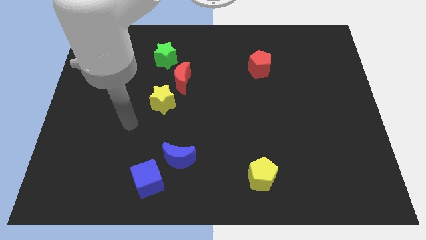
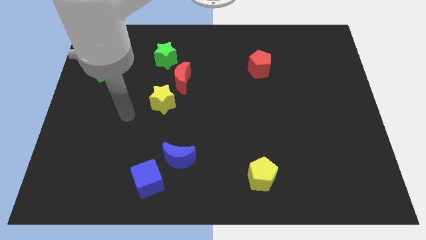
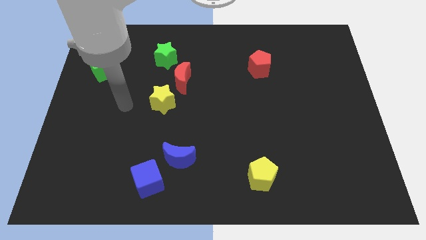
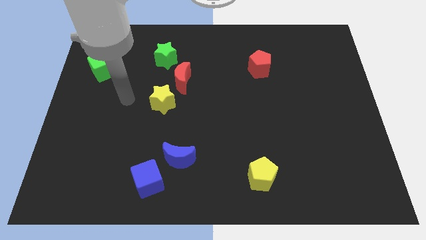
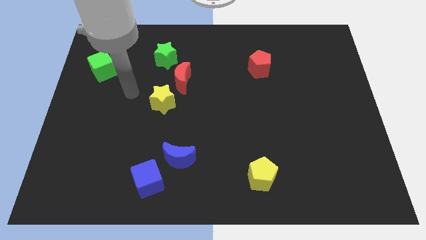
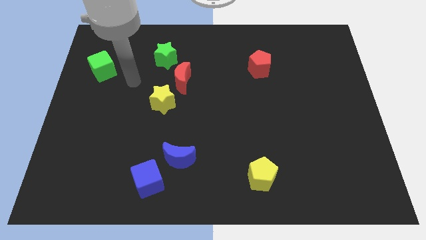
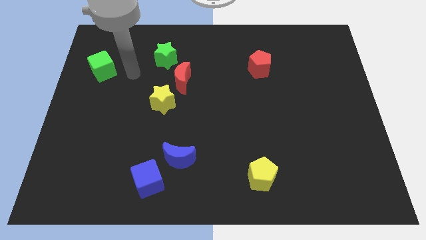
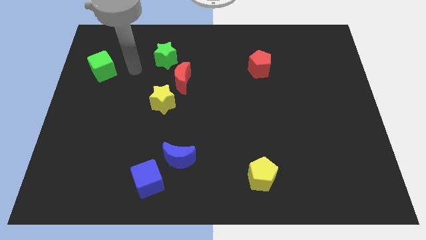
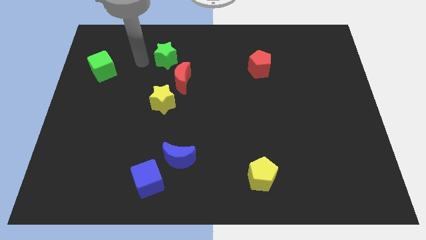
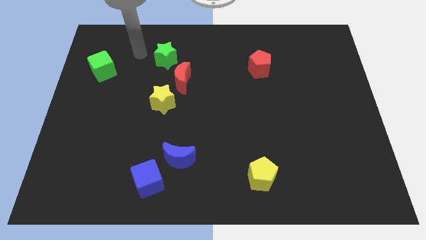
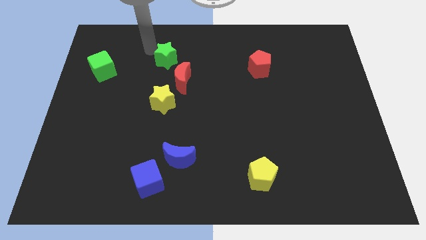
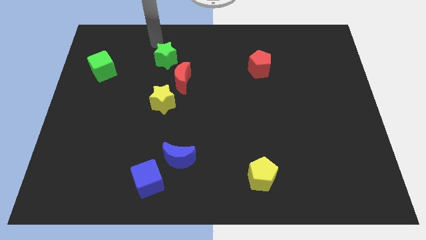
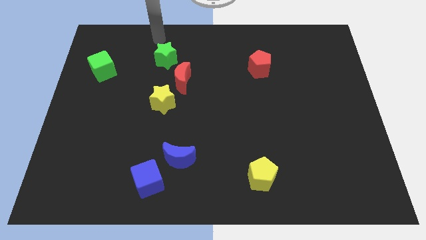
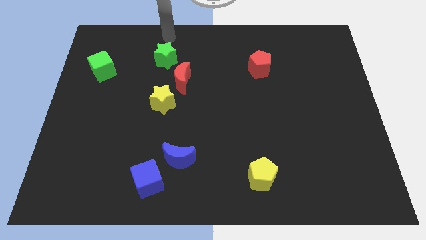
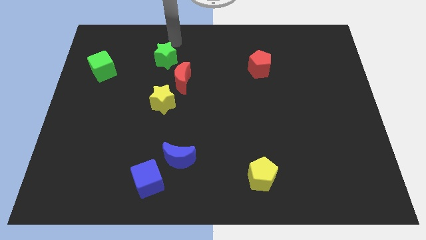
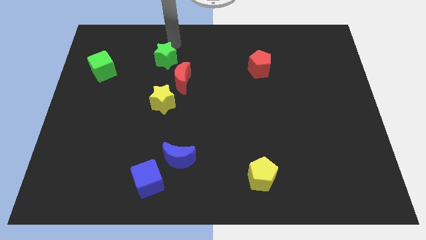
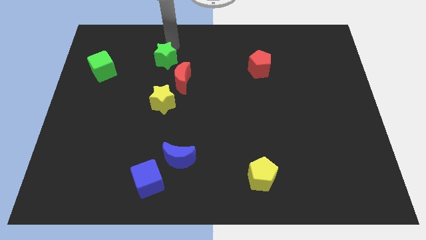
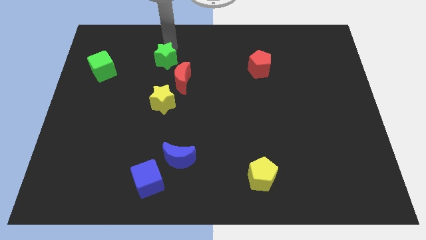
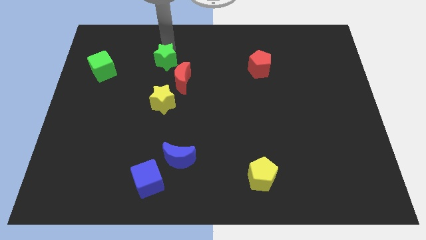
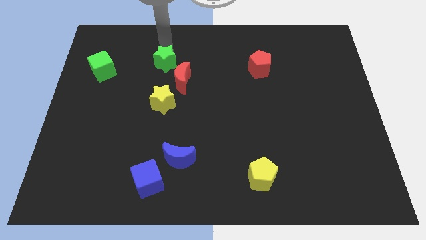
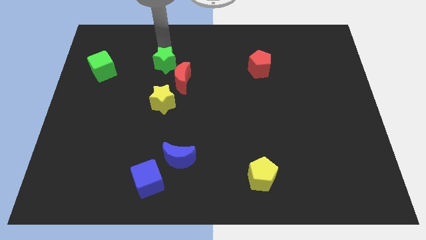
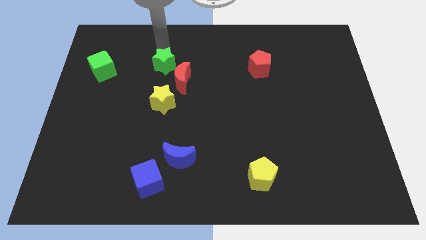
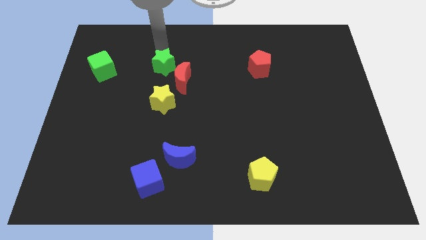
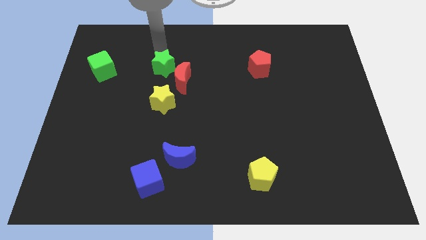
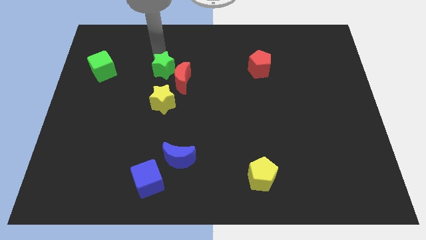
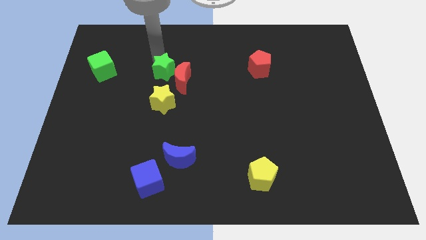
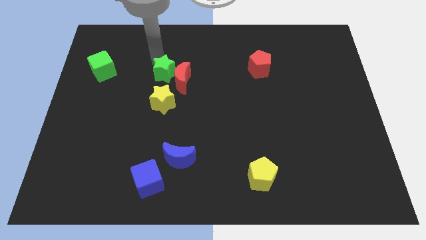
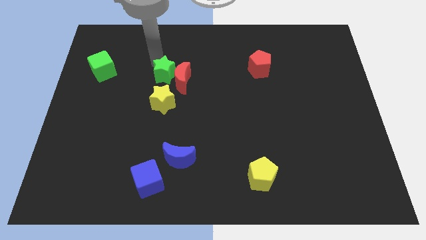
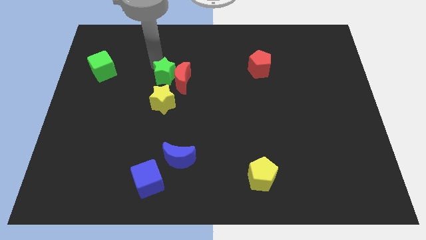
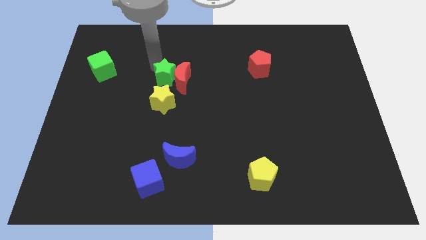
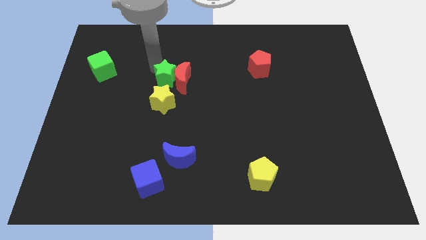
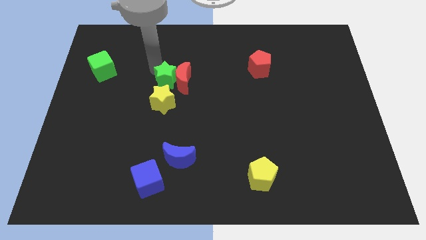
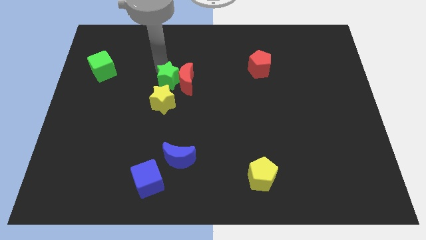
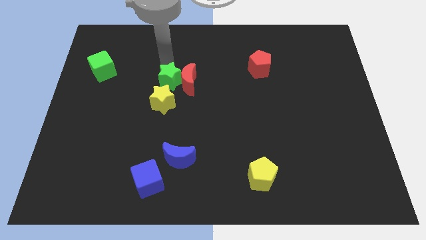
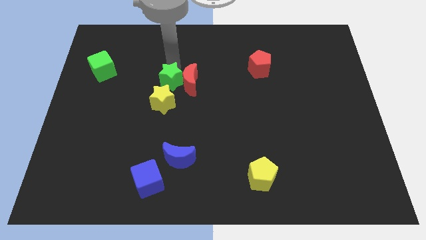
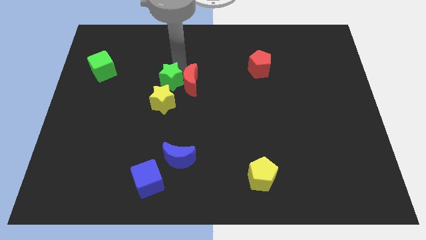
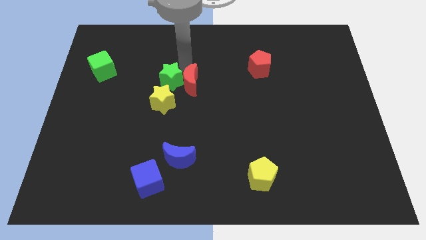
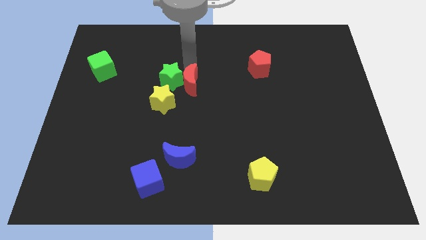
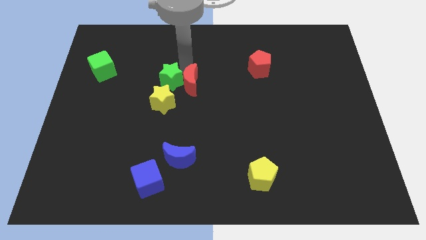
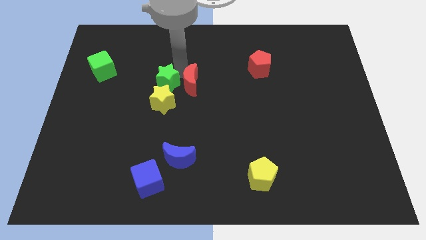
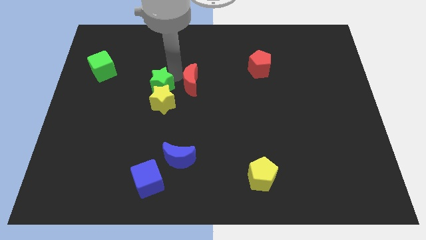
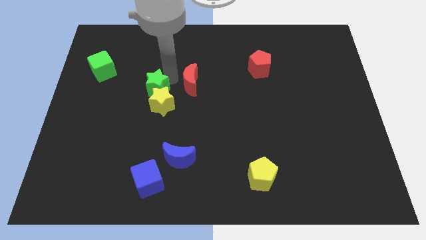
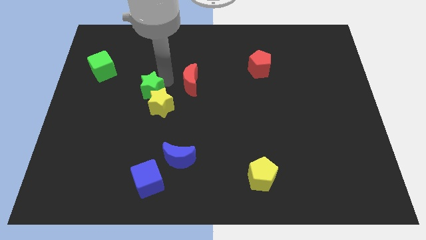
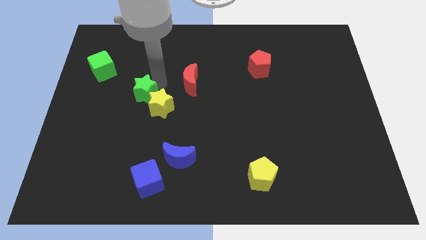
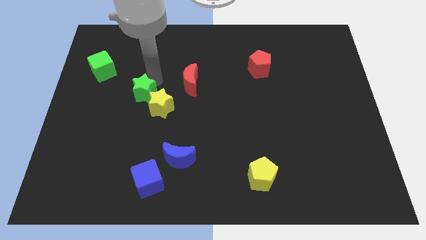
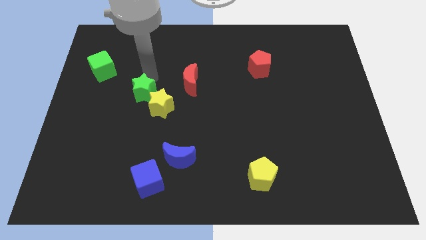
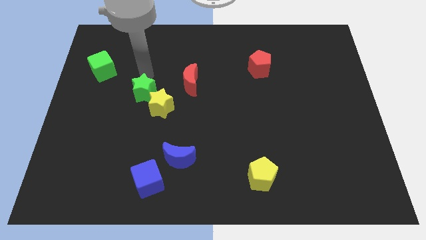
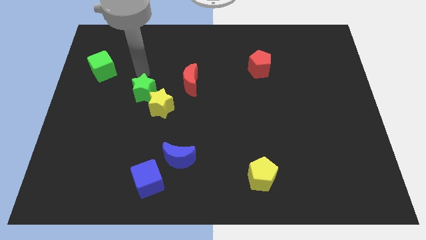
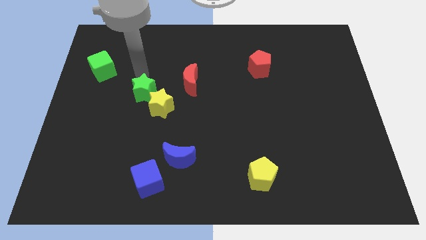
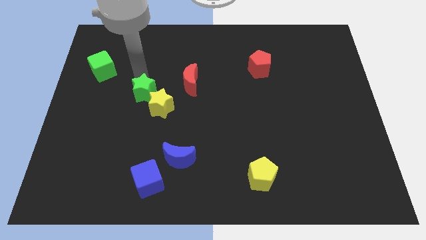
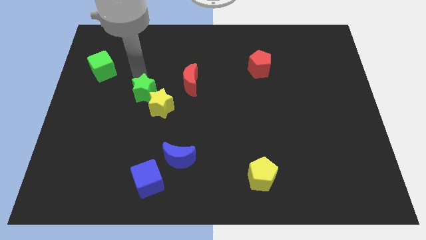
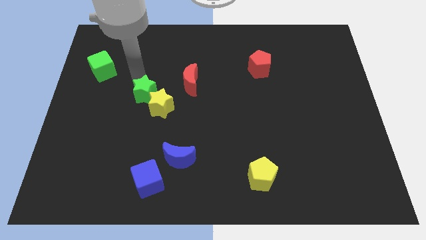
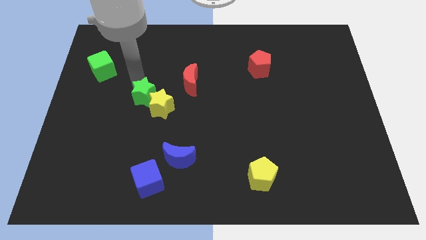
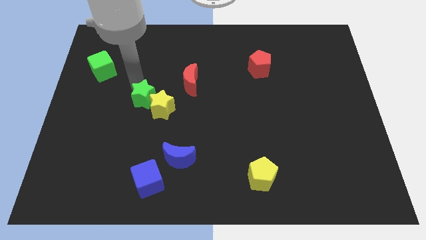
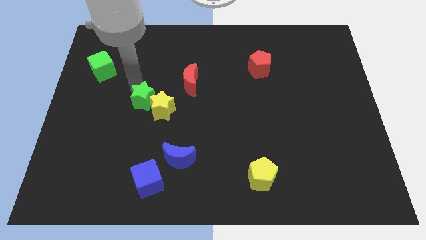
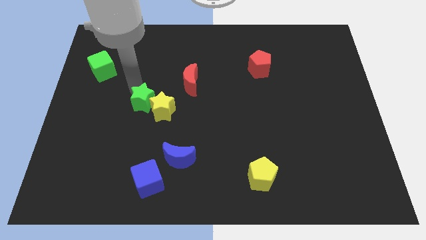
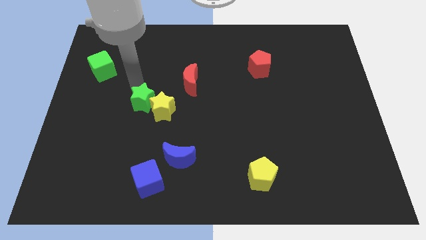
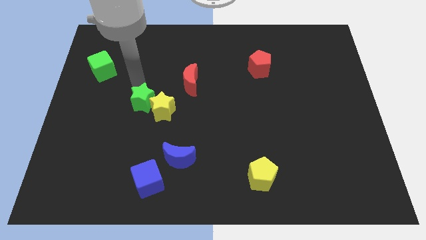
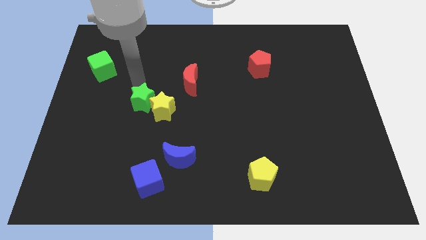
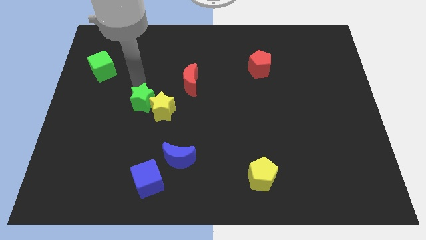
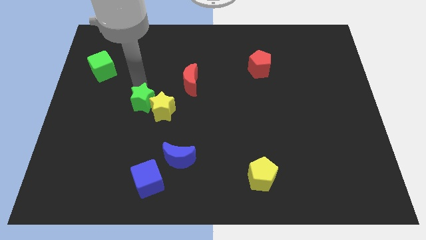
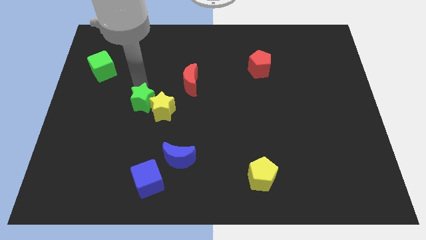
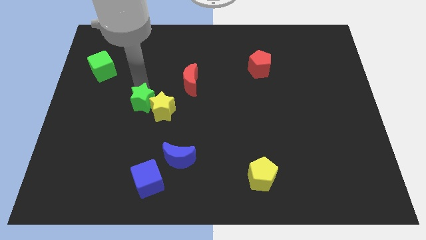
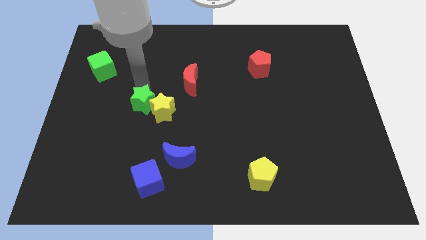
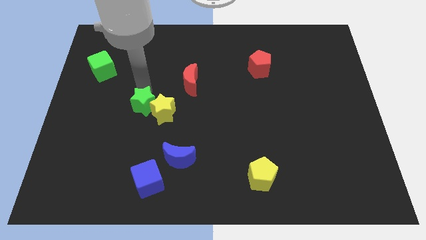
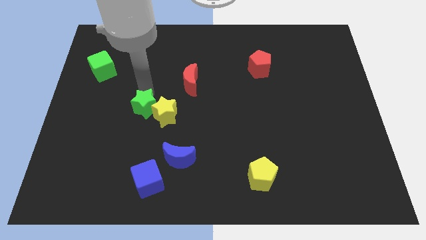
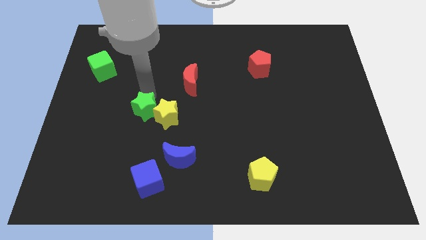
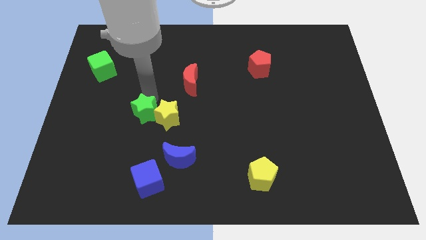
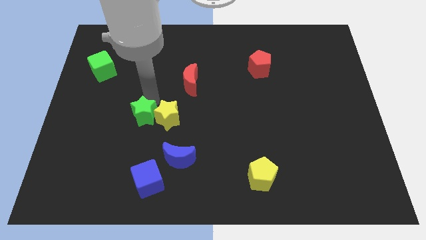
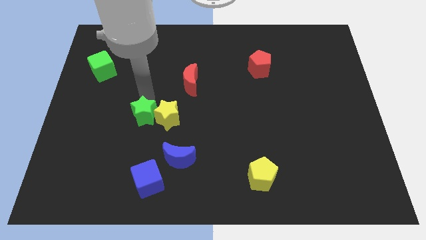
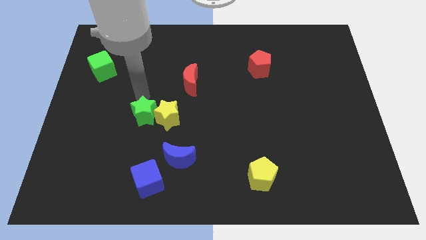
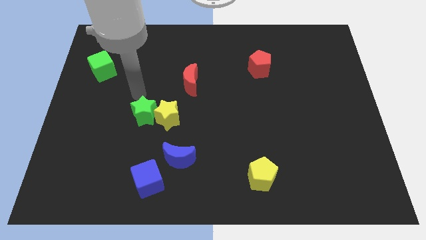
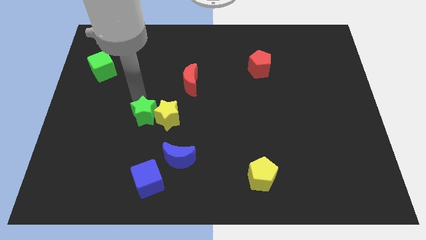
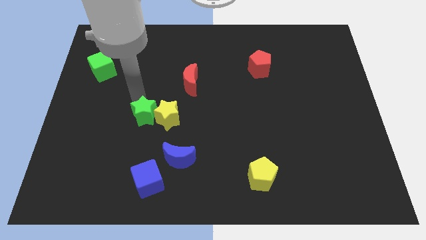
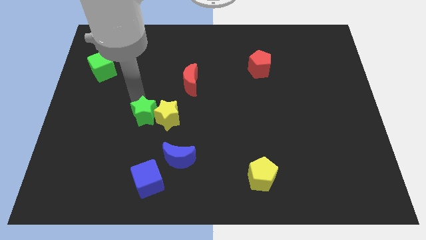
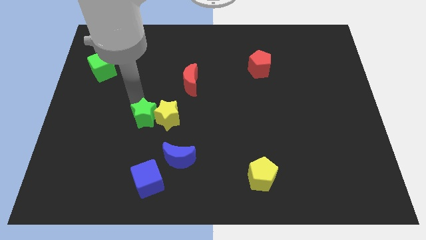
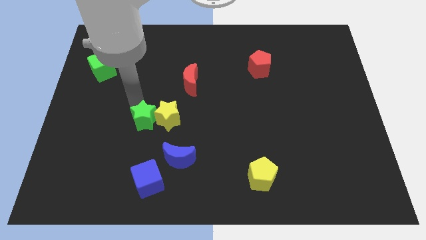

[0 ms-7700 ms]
push the green star to the top side of the blue cube
